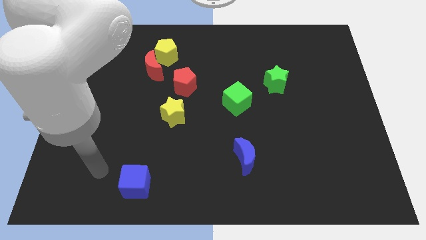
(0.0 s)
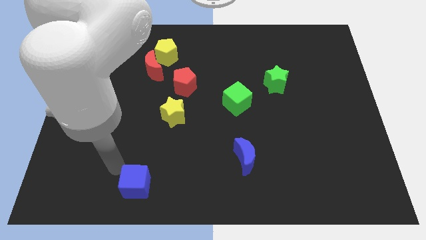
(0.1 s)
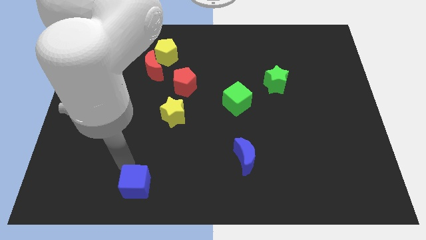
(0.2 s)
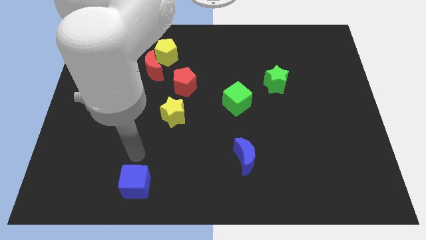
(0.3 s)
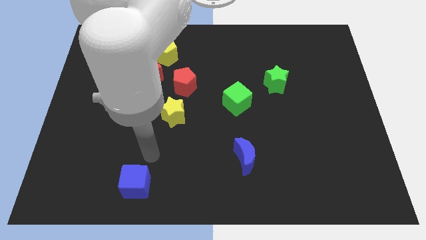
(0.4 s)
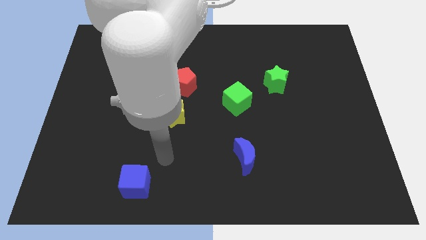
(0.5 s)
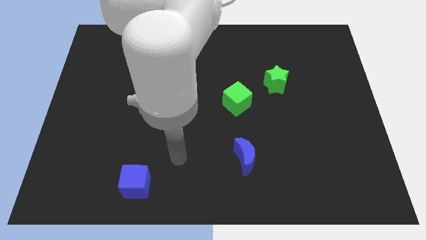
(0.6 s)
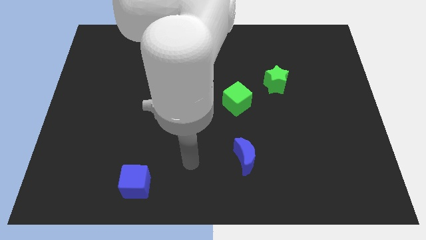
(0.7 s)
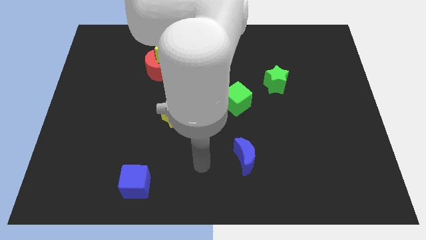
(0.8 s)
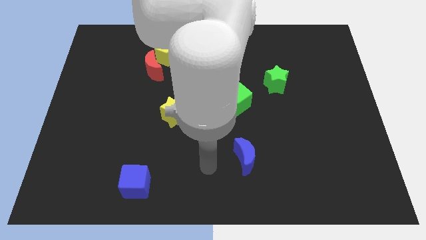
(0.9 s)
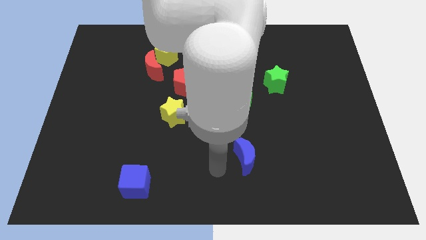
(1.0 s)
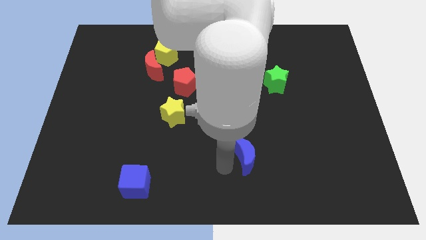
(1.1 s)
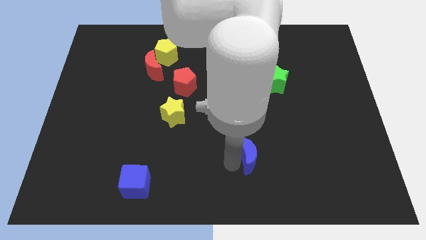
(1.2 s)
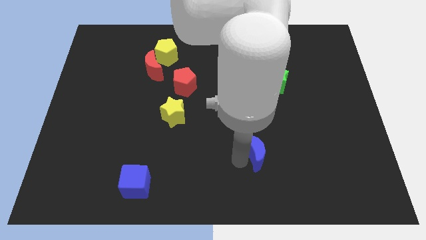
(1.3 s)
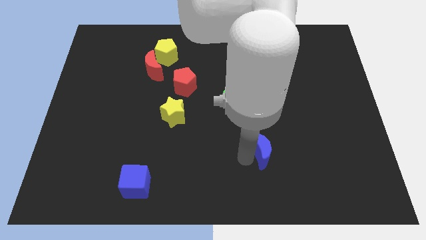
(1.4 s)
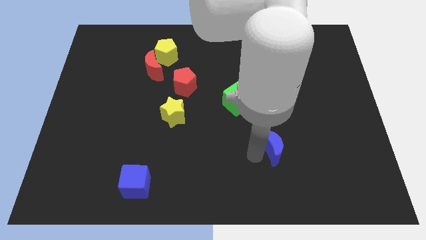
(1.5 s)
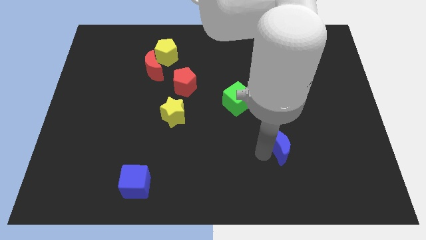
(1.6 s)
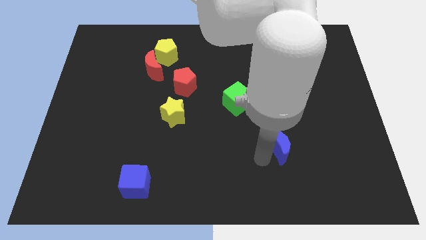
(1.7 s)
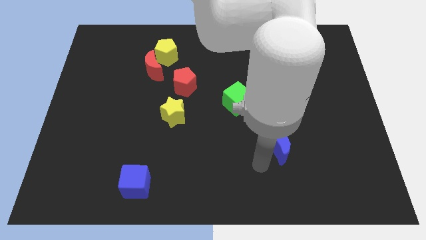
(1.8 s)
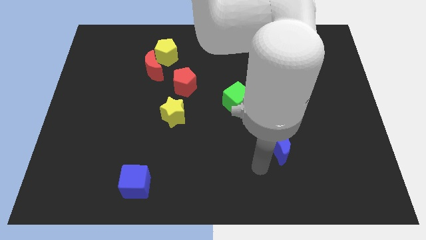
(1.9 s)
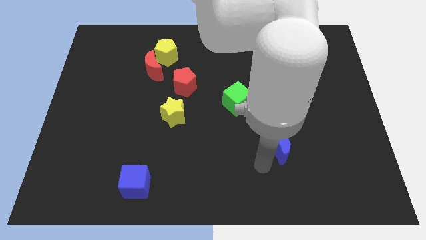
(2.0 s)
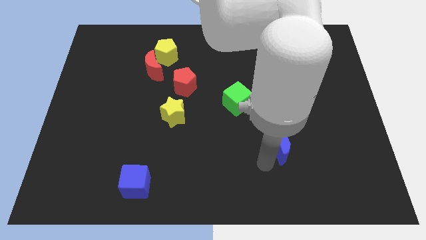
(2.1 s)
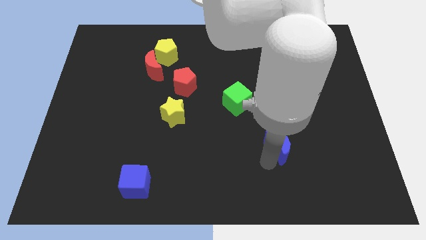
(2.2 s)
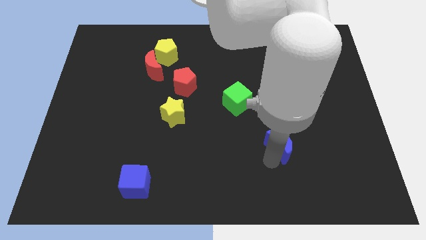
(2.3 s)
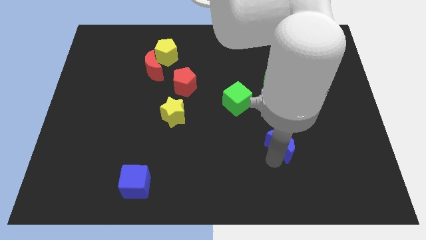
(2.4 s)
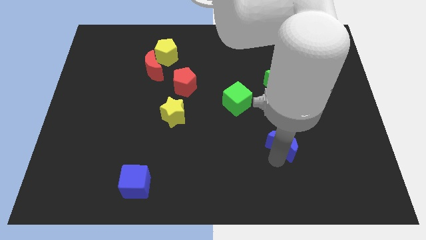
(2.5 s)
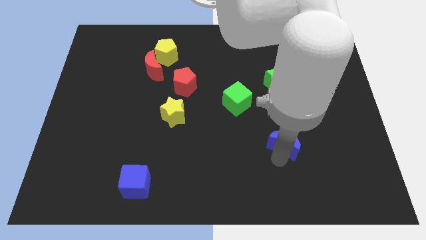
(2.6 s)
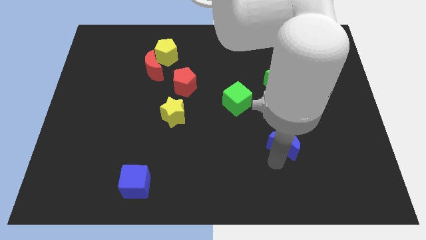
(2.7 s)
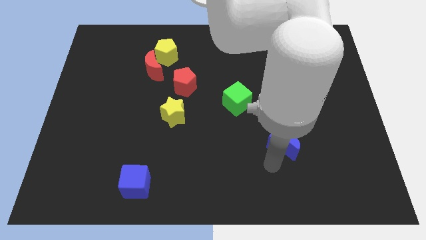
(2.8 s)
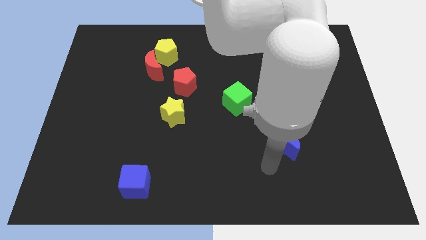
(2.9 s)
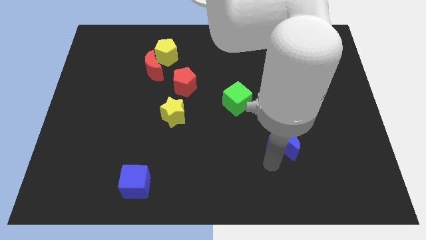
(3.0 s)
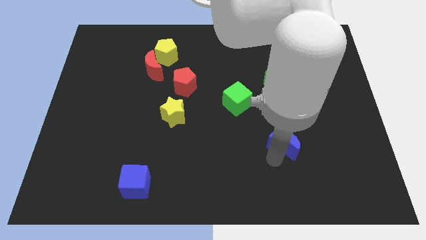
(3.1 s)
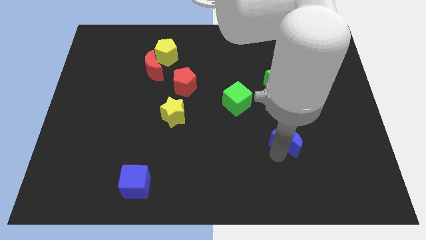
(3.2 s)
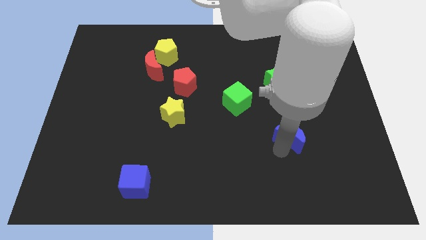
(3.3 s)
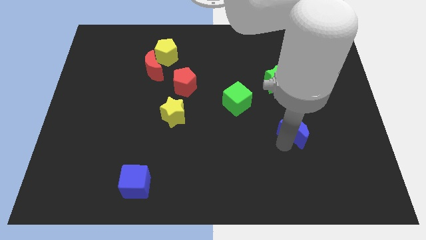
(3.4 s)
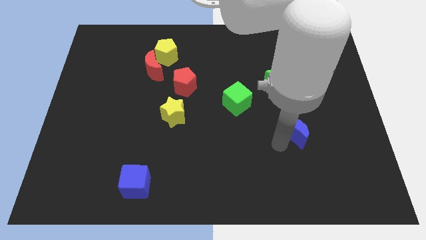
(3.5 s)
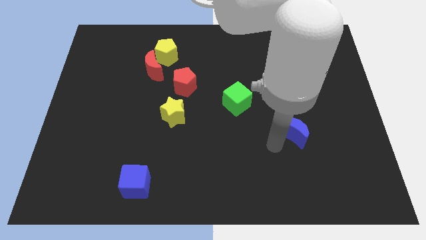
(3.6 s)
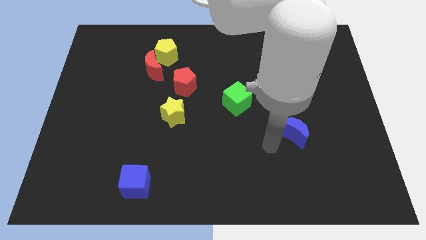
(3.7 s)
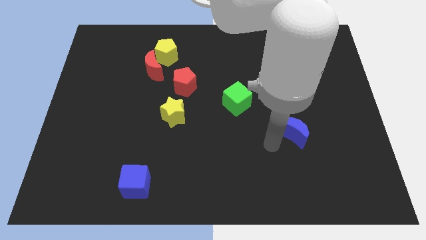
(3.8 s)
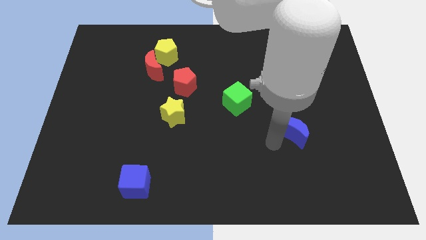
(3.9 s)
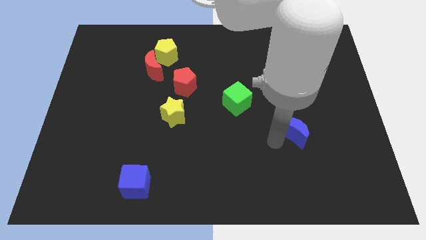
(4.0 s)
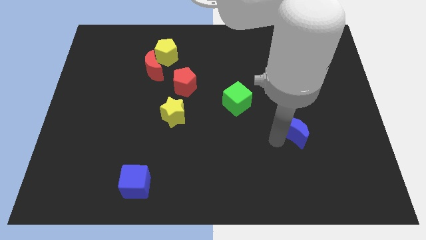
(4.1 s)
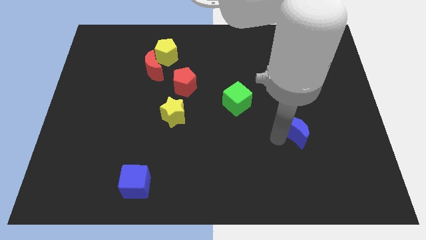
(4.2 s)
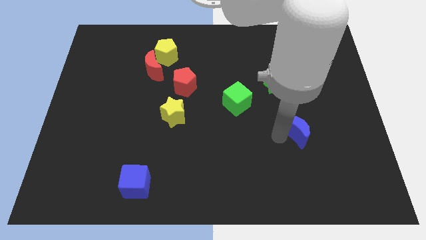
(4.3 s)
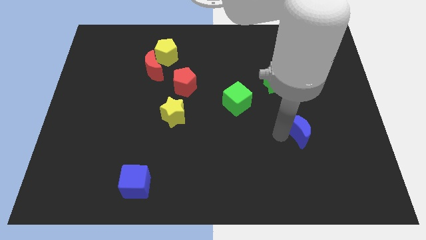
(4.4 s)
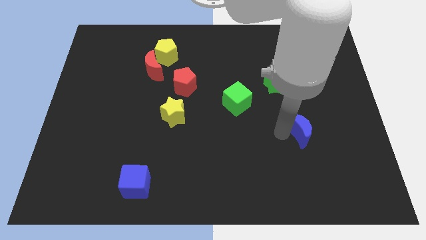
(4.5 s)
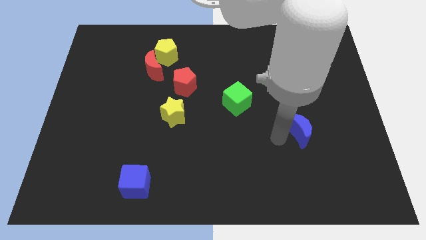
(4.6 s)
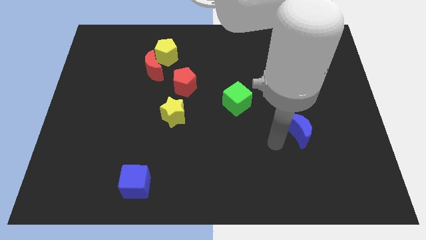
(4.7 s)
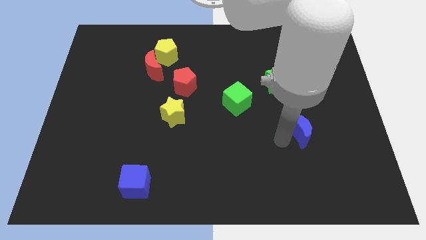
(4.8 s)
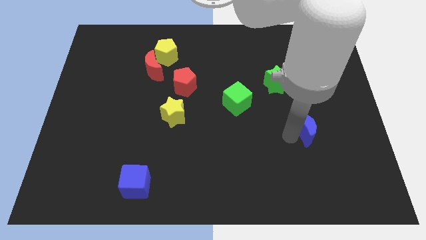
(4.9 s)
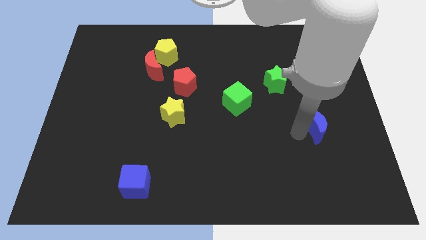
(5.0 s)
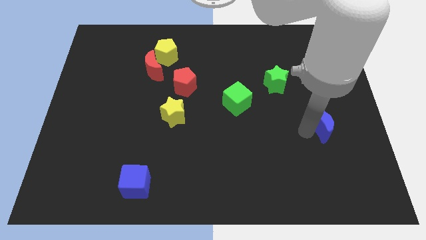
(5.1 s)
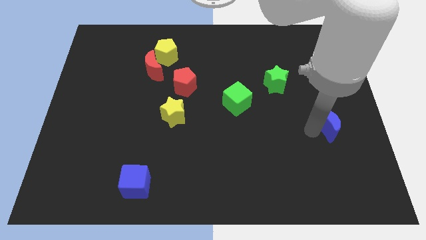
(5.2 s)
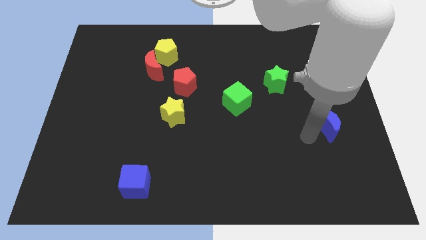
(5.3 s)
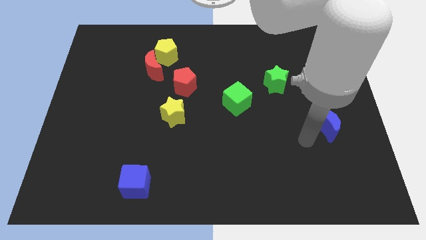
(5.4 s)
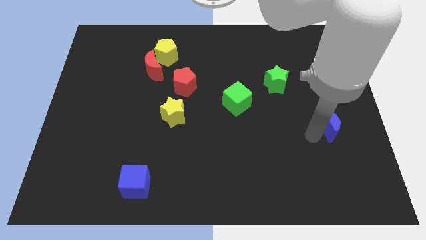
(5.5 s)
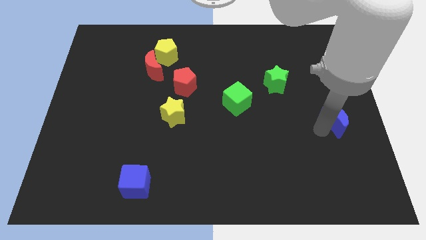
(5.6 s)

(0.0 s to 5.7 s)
slide the blue moon to the center right

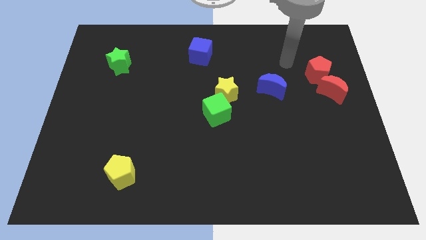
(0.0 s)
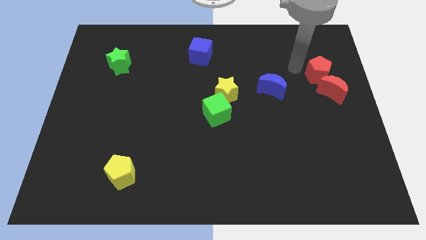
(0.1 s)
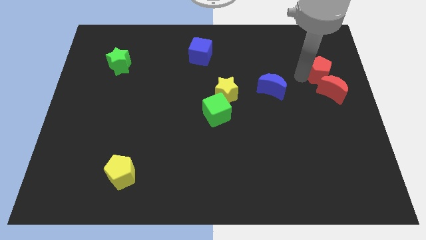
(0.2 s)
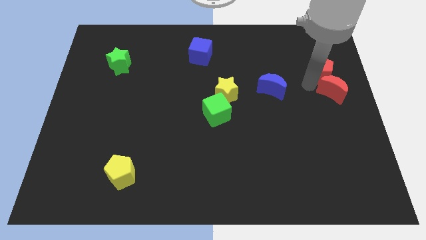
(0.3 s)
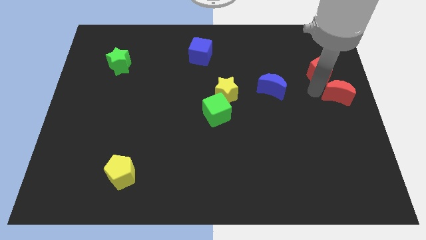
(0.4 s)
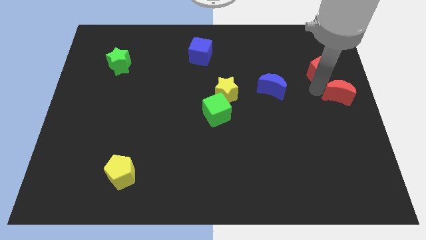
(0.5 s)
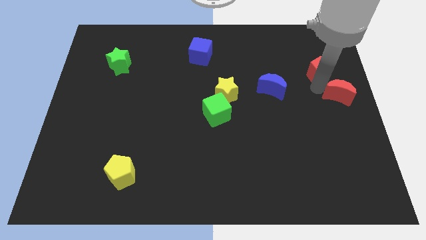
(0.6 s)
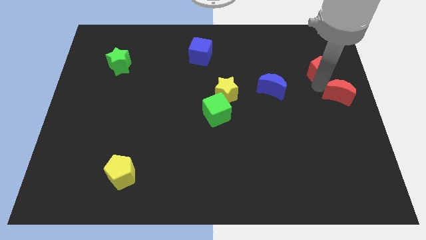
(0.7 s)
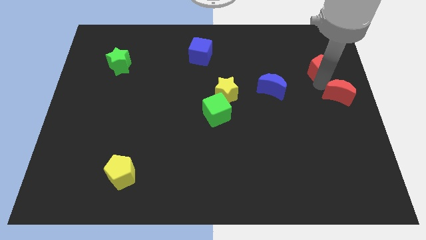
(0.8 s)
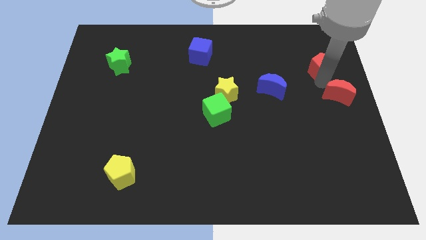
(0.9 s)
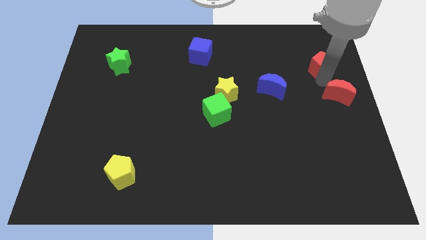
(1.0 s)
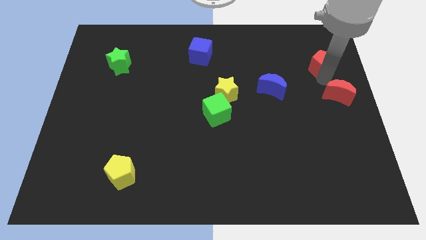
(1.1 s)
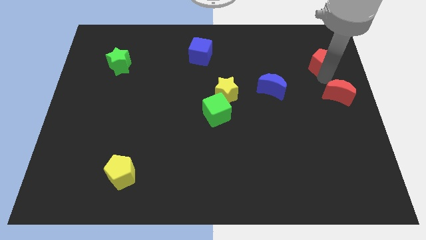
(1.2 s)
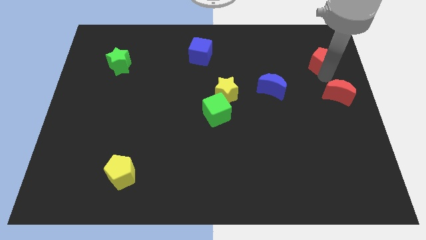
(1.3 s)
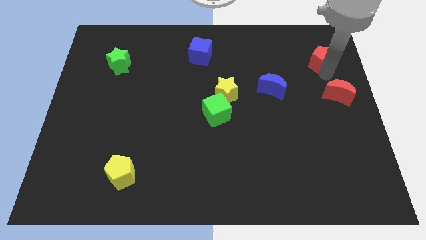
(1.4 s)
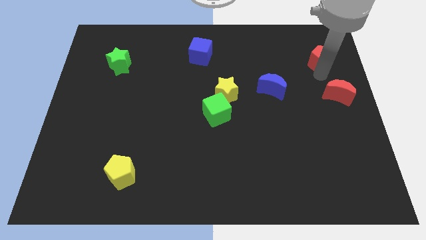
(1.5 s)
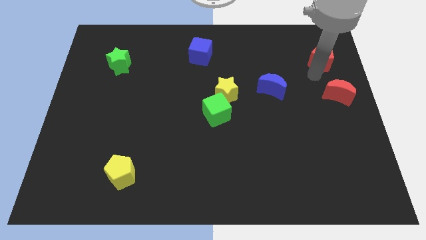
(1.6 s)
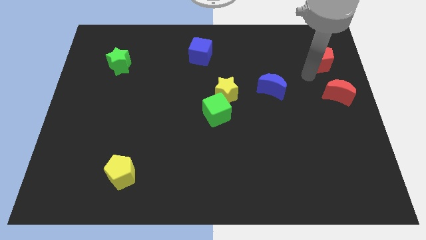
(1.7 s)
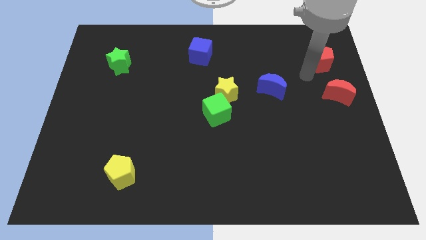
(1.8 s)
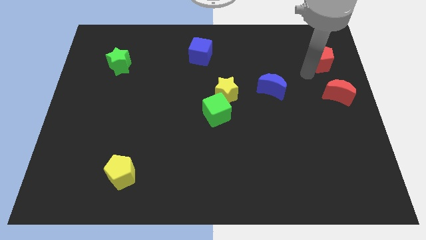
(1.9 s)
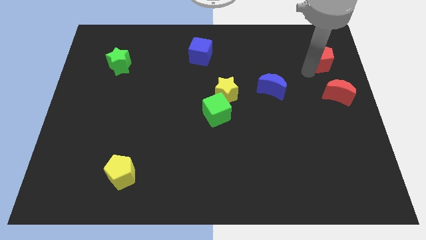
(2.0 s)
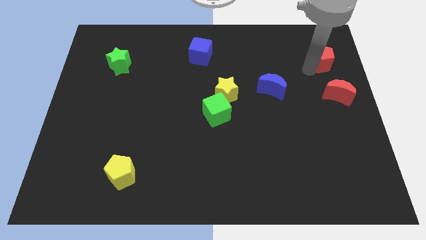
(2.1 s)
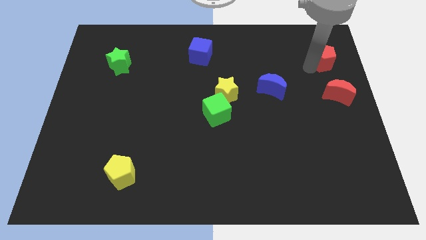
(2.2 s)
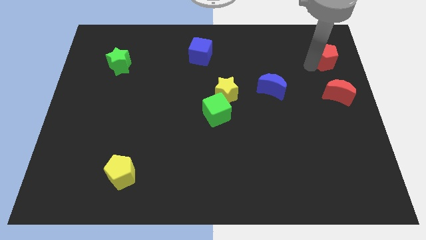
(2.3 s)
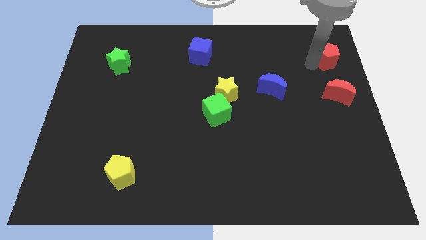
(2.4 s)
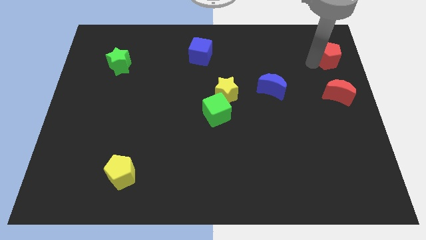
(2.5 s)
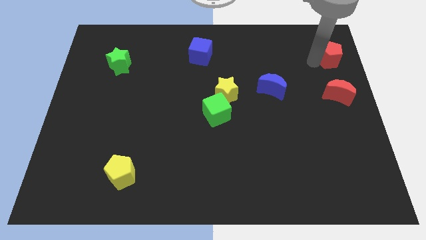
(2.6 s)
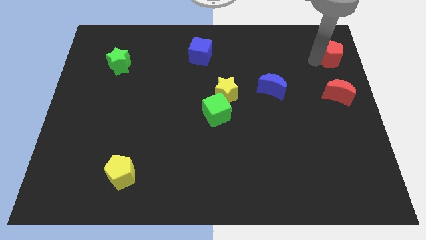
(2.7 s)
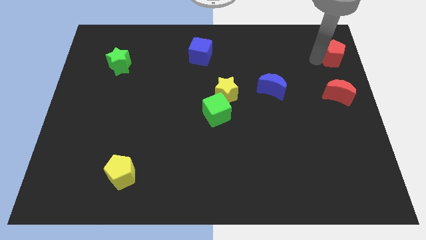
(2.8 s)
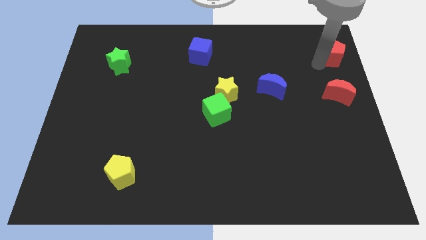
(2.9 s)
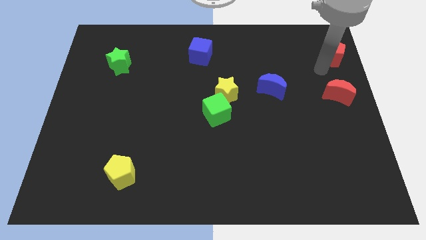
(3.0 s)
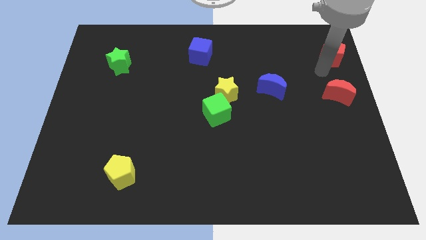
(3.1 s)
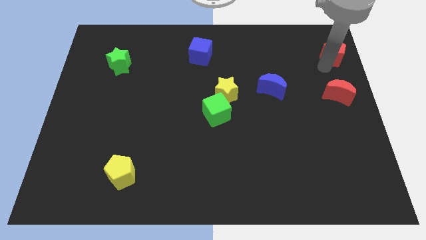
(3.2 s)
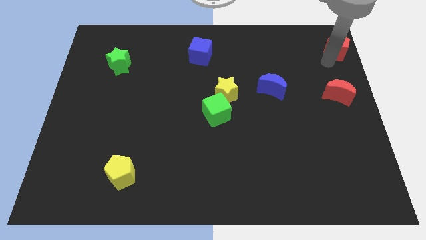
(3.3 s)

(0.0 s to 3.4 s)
move the red pentagon to the top right corner
